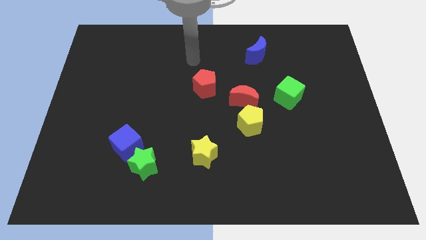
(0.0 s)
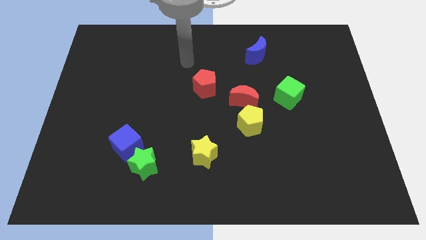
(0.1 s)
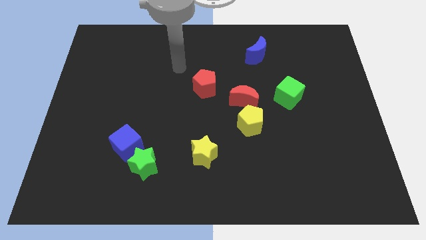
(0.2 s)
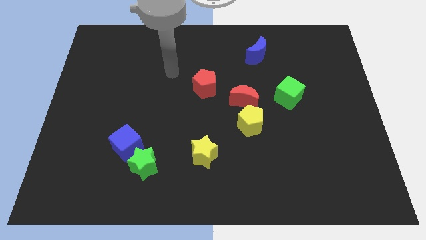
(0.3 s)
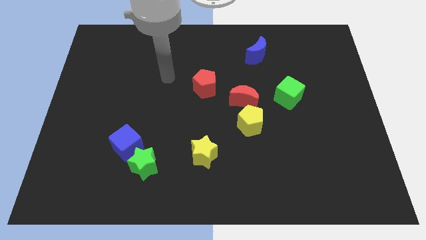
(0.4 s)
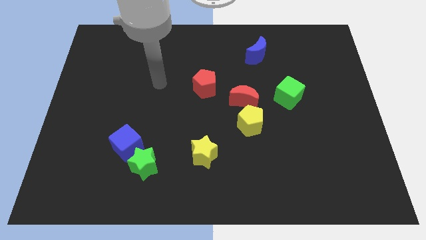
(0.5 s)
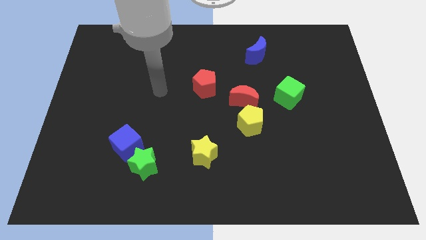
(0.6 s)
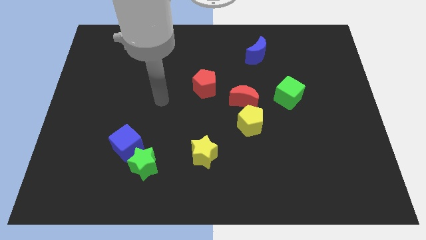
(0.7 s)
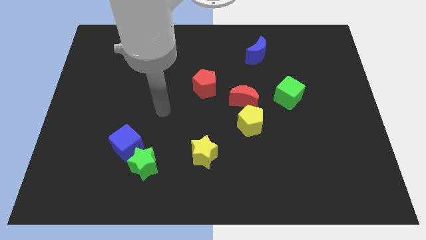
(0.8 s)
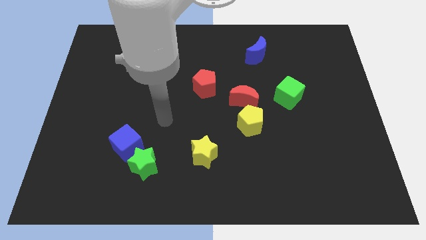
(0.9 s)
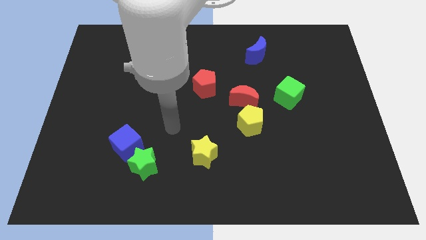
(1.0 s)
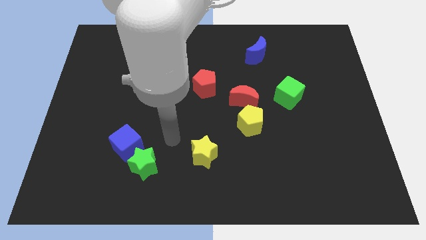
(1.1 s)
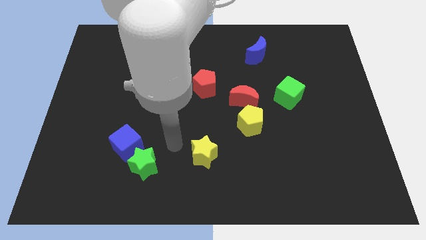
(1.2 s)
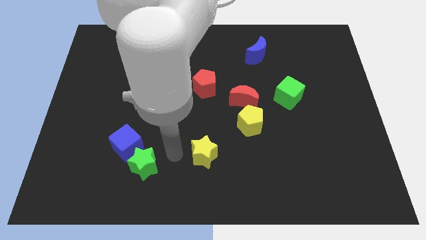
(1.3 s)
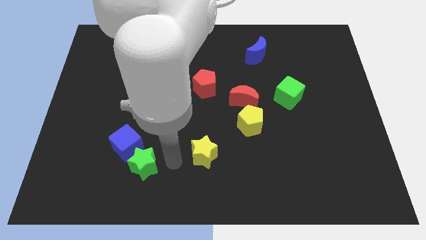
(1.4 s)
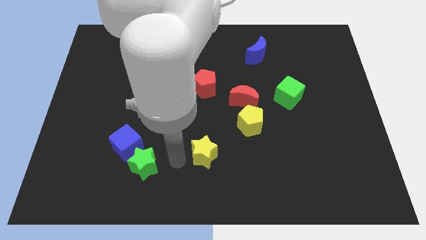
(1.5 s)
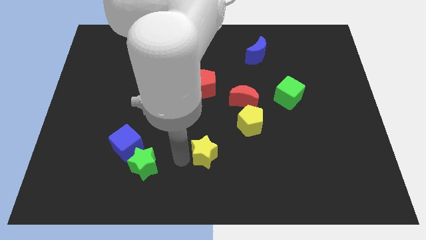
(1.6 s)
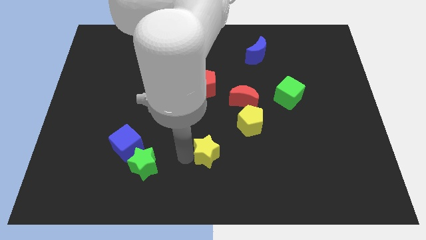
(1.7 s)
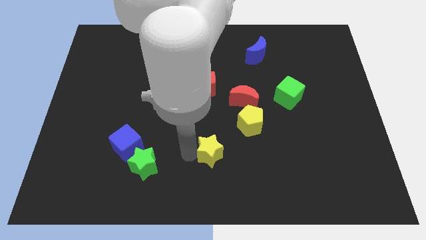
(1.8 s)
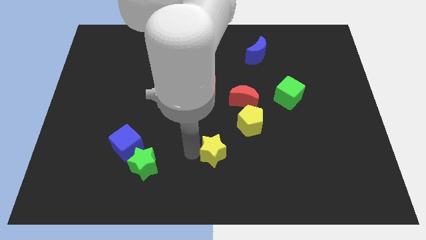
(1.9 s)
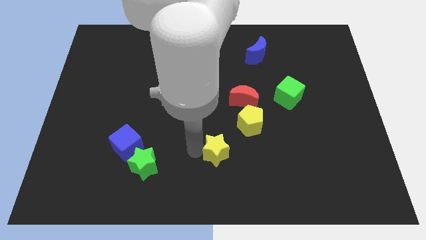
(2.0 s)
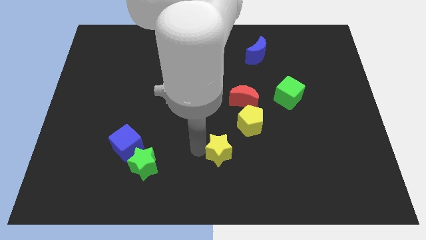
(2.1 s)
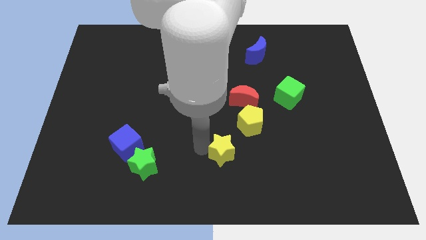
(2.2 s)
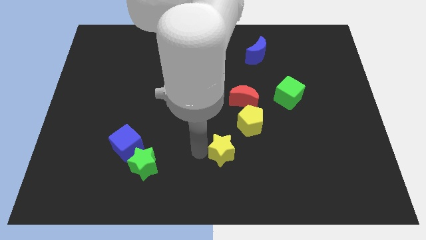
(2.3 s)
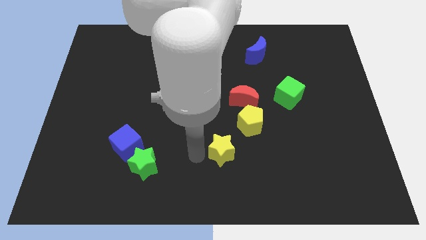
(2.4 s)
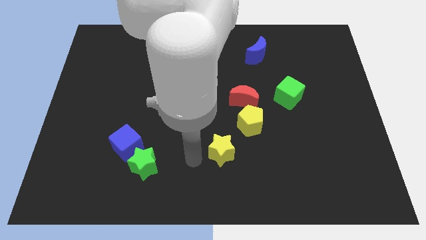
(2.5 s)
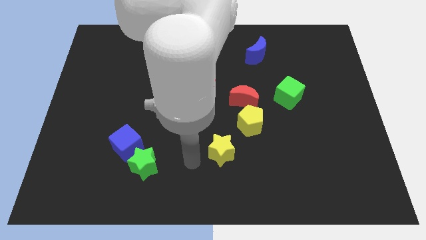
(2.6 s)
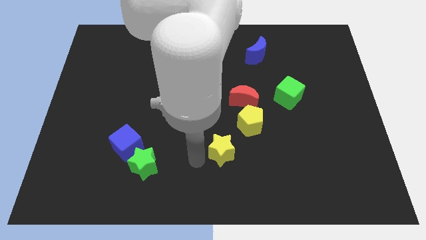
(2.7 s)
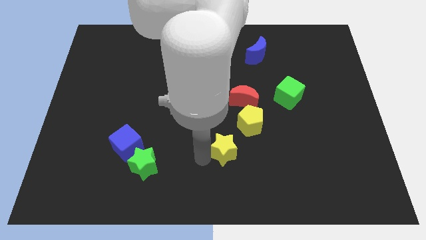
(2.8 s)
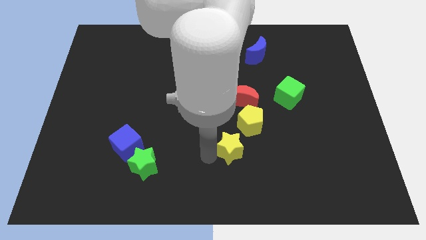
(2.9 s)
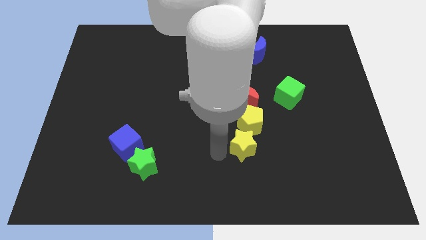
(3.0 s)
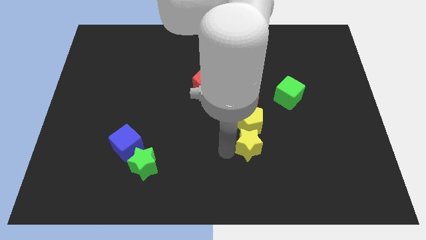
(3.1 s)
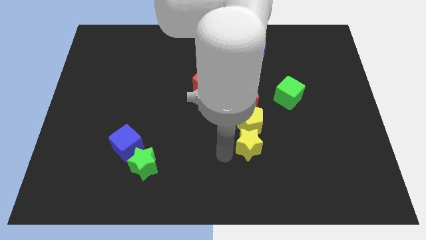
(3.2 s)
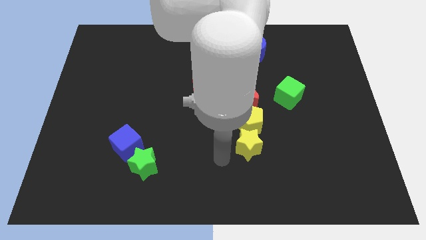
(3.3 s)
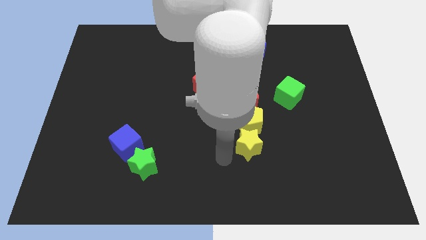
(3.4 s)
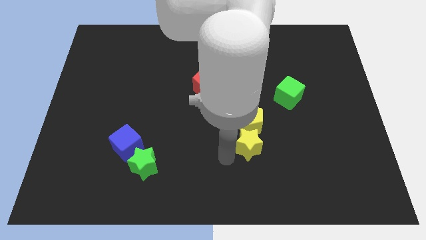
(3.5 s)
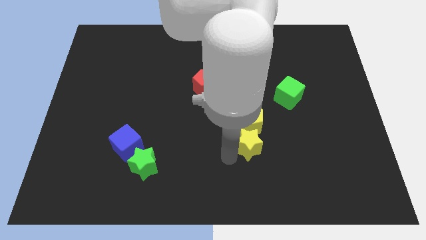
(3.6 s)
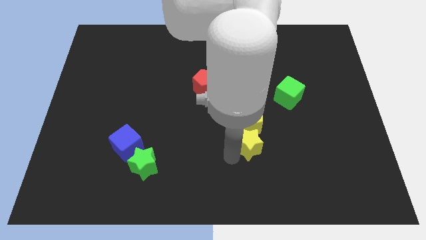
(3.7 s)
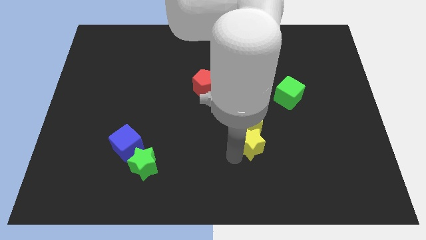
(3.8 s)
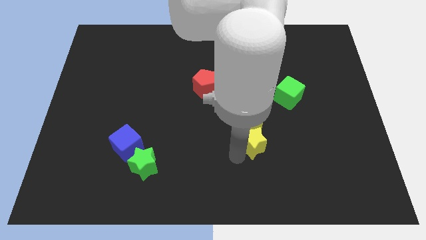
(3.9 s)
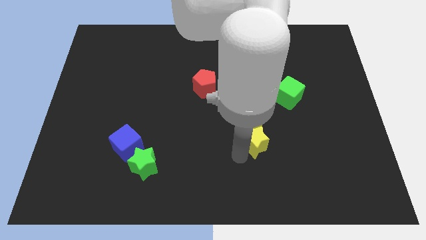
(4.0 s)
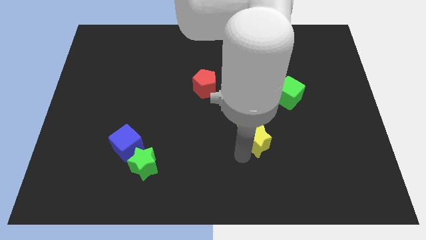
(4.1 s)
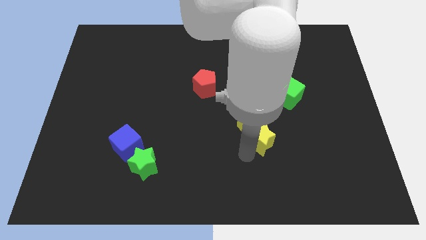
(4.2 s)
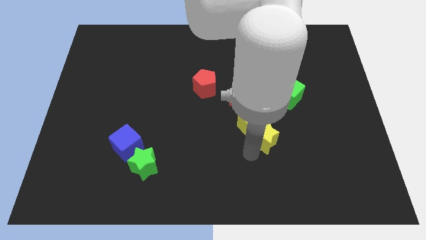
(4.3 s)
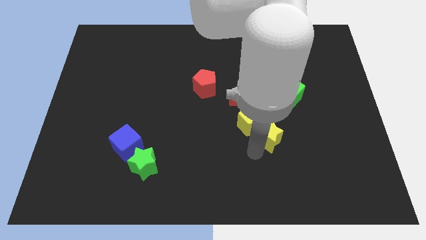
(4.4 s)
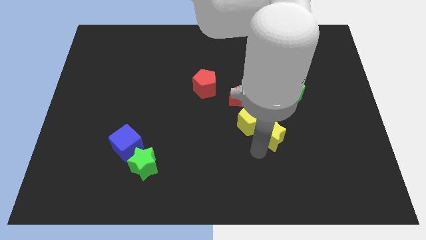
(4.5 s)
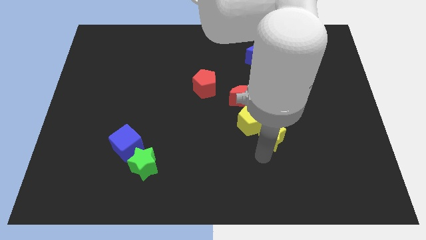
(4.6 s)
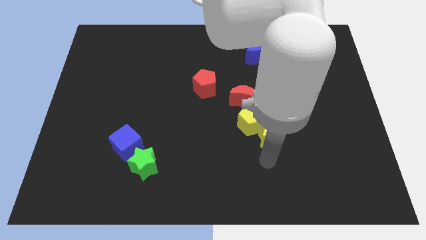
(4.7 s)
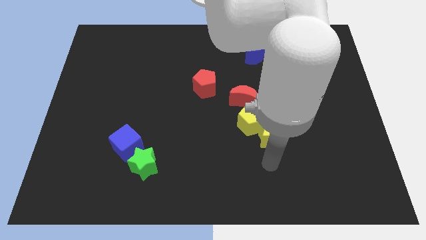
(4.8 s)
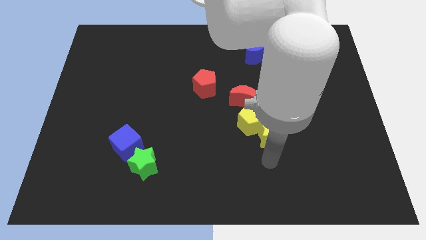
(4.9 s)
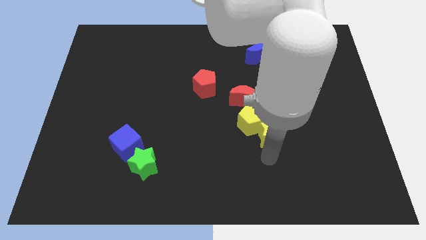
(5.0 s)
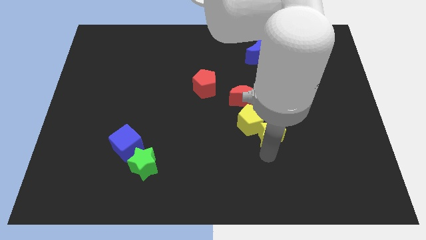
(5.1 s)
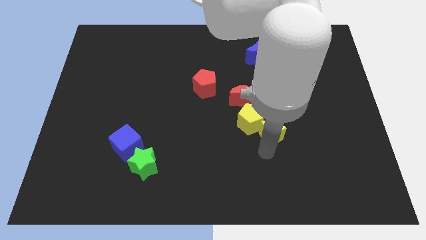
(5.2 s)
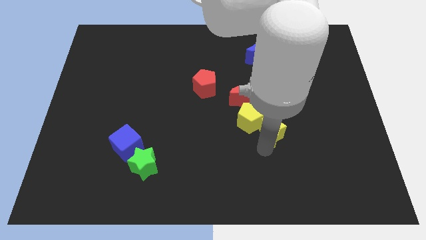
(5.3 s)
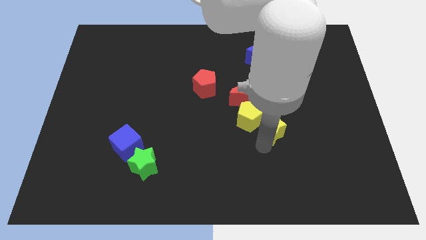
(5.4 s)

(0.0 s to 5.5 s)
put the yellow star to the bottom left of the green cube

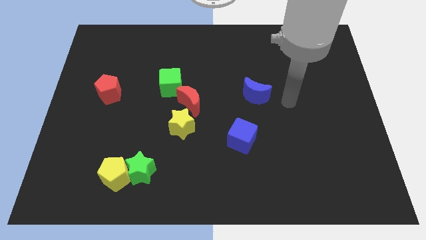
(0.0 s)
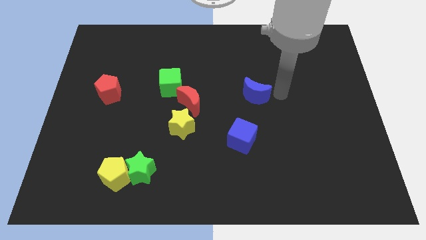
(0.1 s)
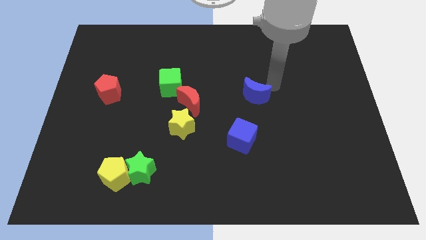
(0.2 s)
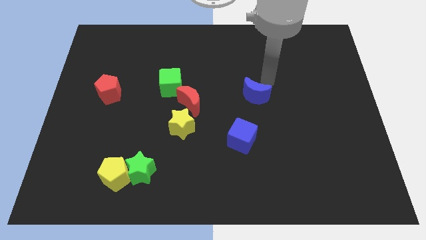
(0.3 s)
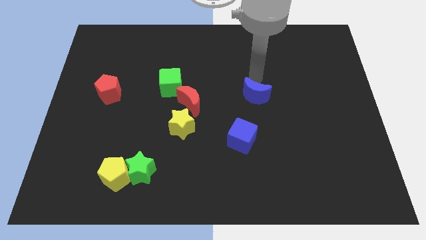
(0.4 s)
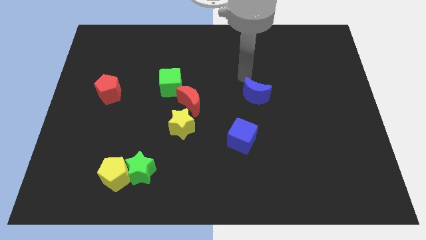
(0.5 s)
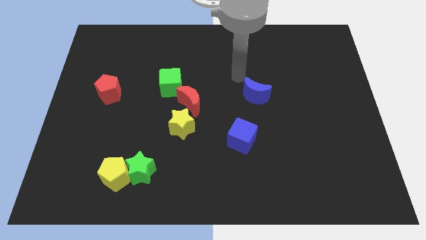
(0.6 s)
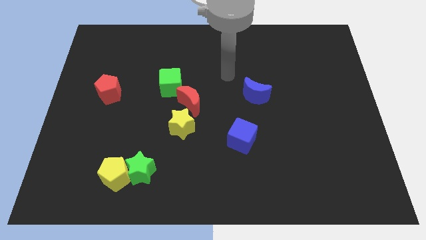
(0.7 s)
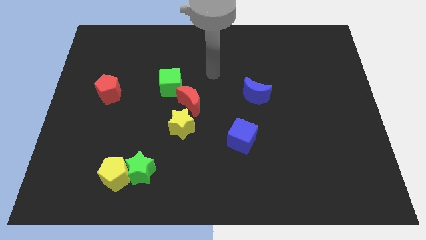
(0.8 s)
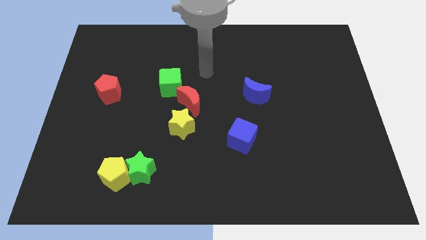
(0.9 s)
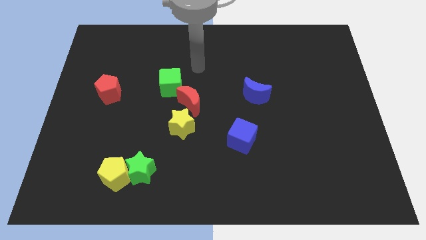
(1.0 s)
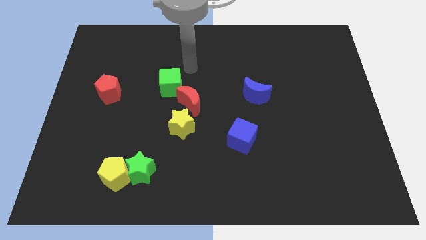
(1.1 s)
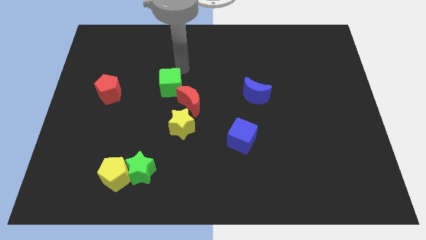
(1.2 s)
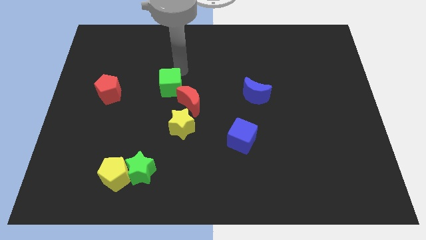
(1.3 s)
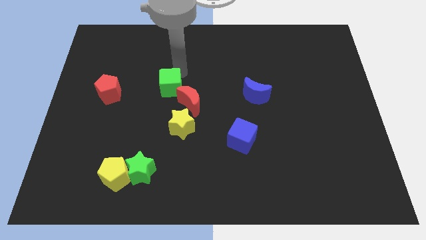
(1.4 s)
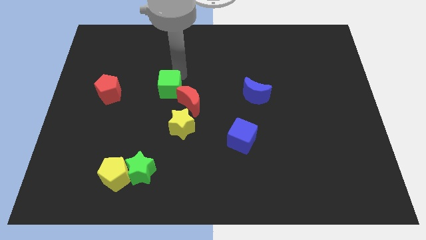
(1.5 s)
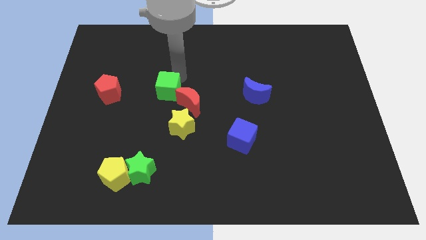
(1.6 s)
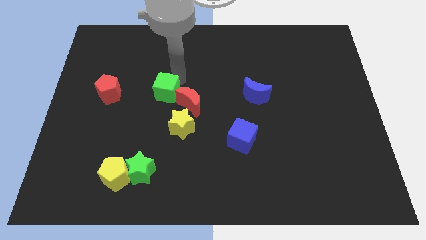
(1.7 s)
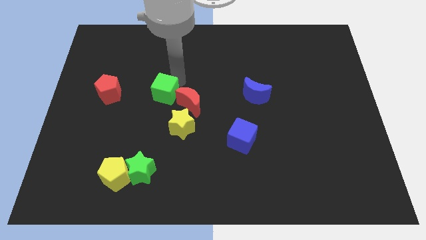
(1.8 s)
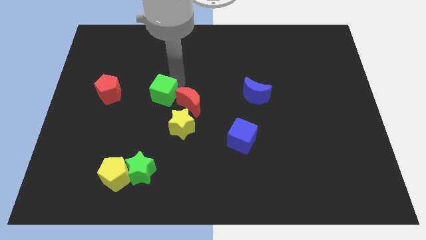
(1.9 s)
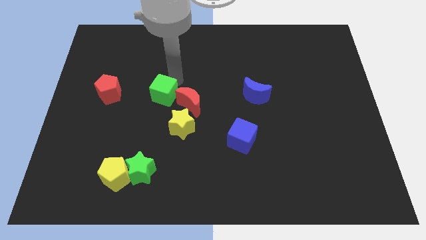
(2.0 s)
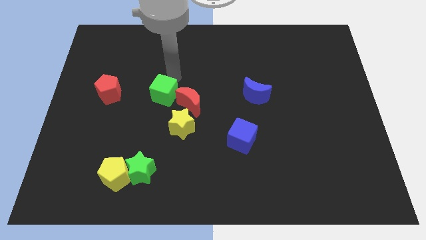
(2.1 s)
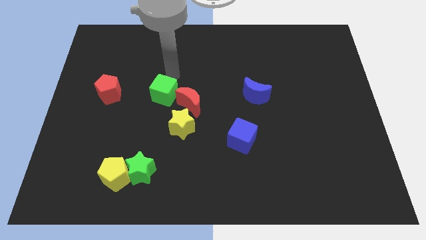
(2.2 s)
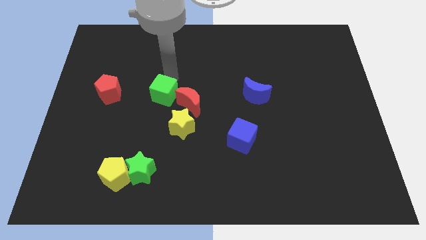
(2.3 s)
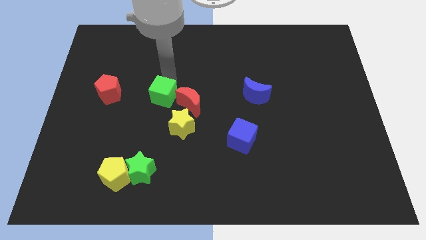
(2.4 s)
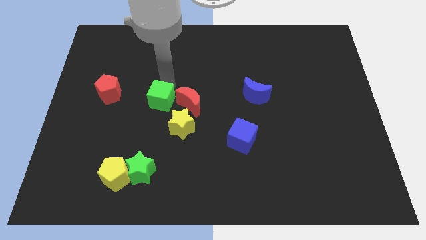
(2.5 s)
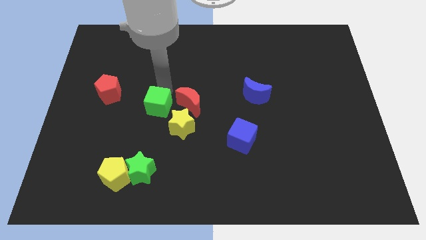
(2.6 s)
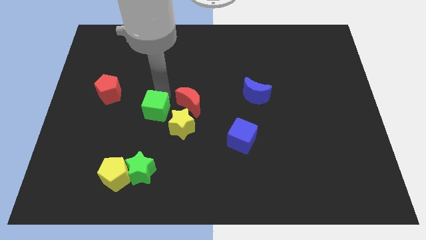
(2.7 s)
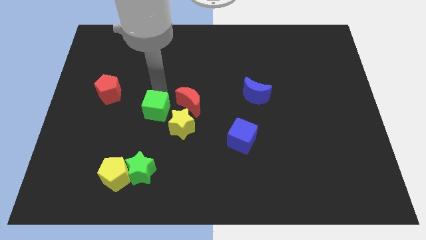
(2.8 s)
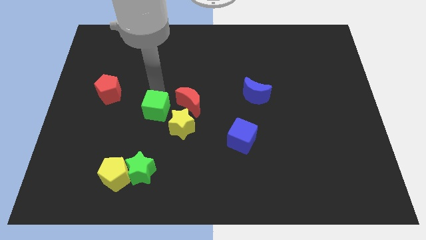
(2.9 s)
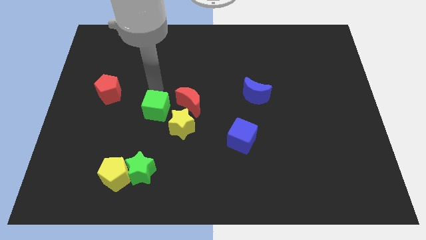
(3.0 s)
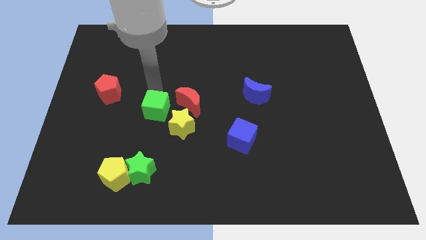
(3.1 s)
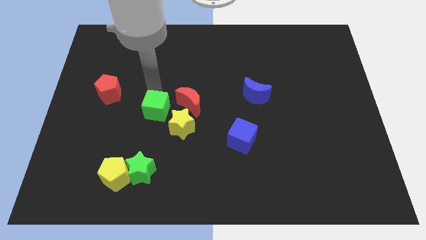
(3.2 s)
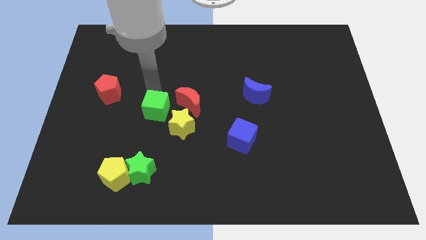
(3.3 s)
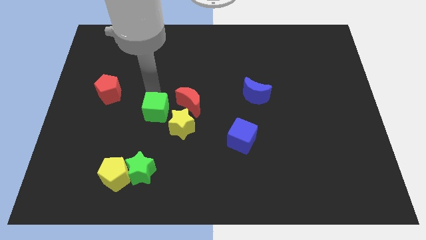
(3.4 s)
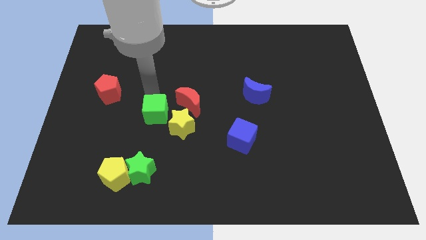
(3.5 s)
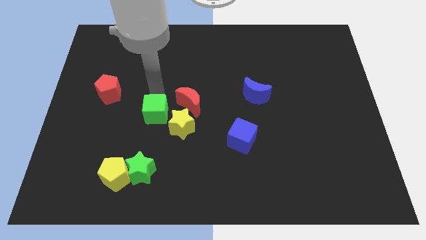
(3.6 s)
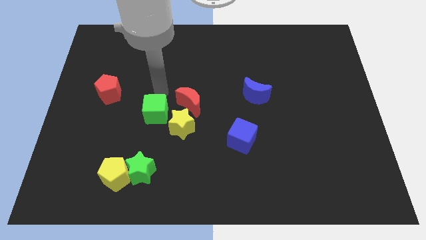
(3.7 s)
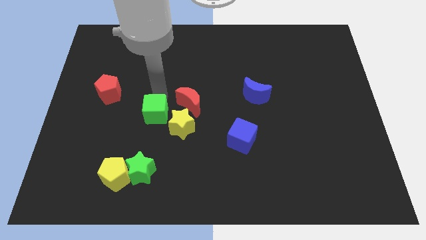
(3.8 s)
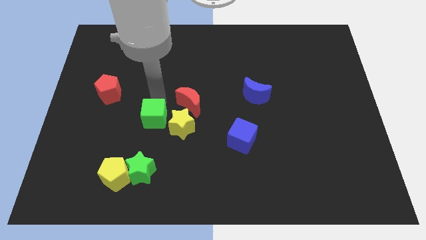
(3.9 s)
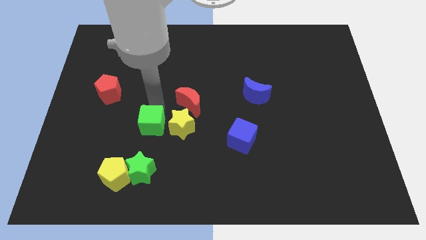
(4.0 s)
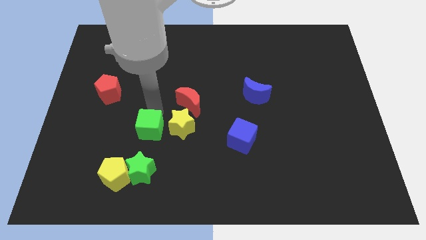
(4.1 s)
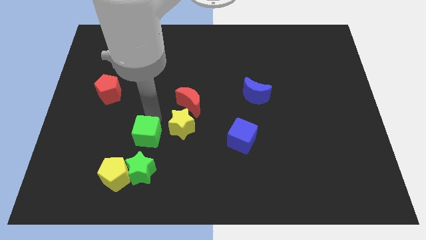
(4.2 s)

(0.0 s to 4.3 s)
slide the green cube diagonally up and to the right of the yellow pentagon
